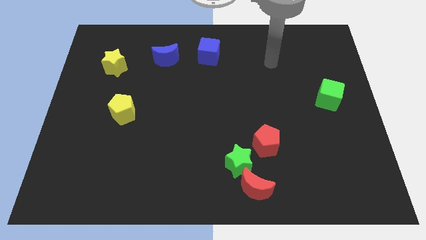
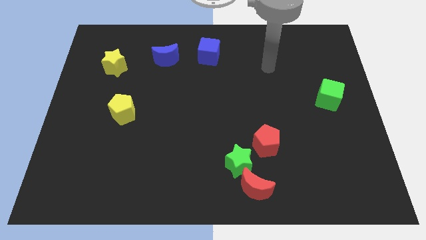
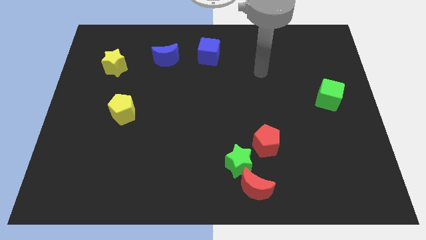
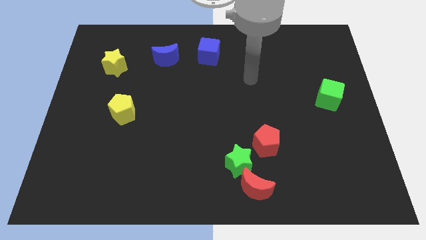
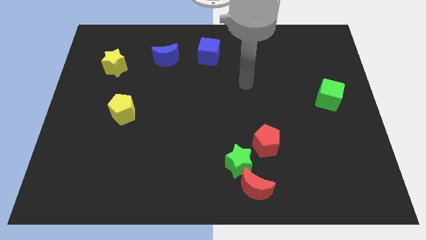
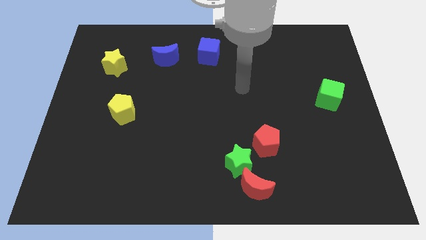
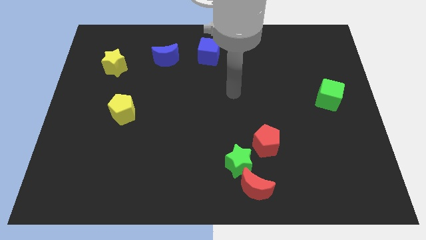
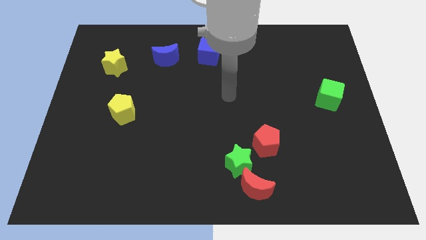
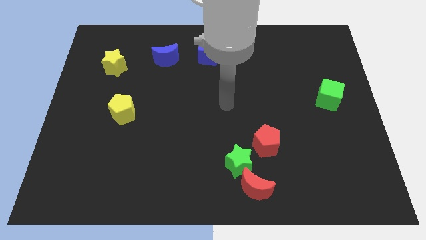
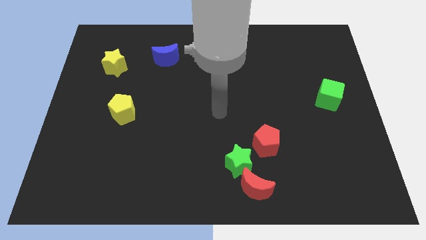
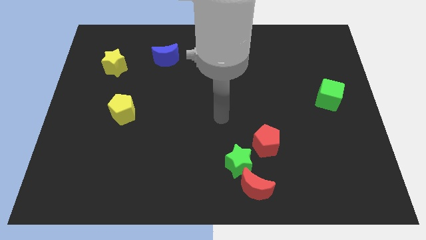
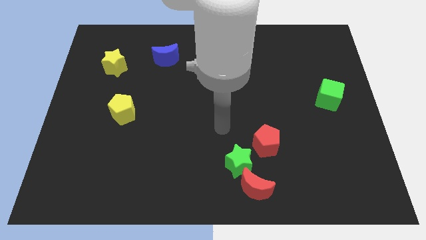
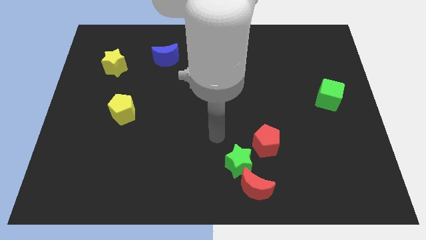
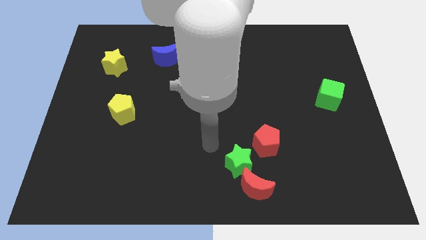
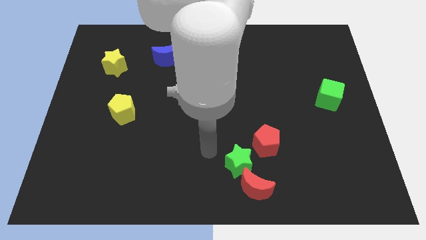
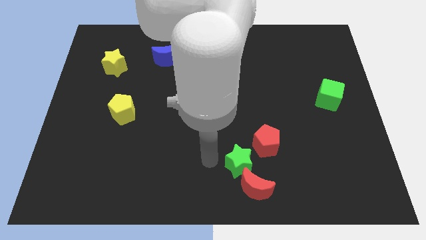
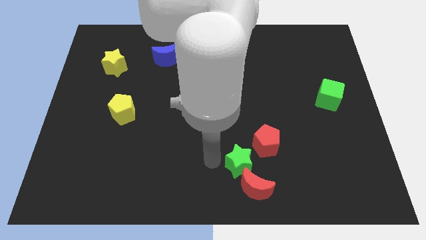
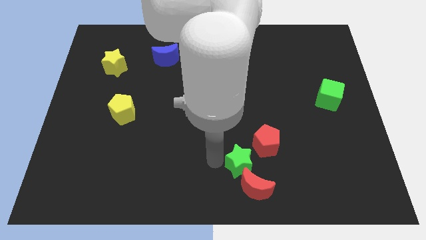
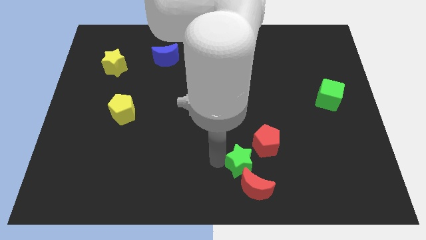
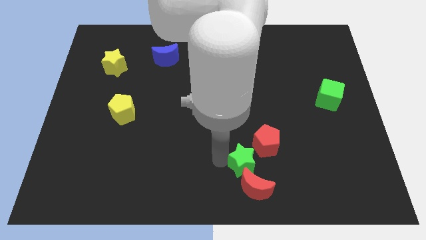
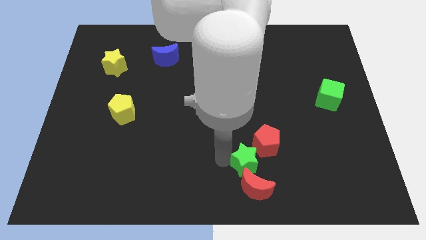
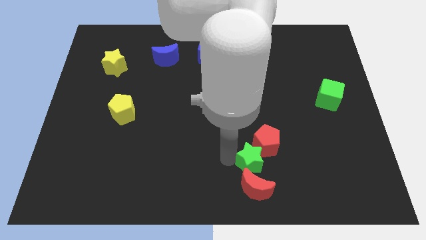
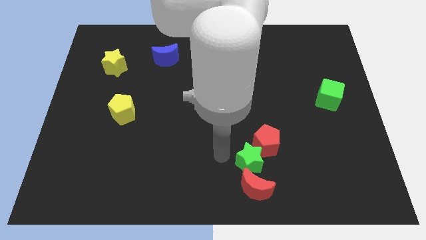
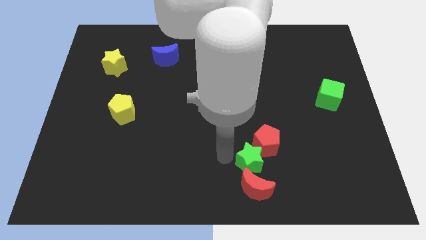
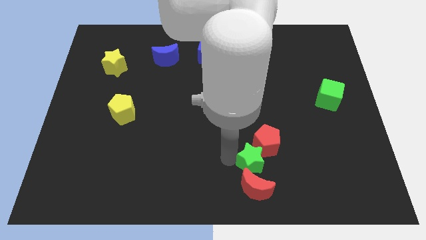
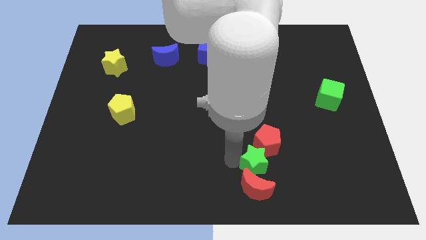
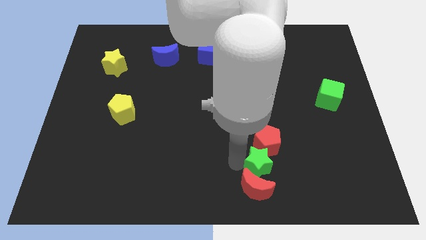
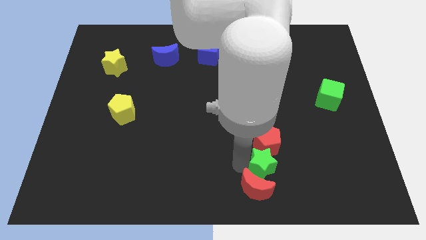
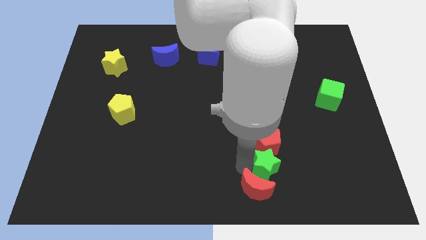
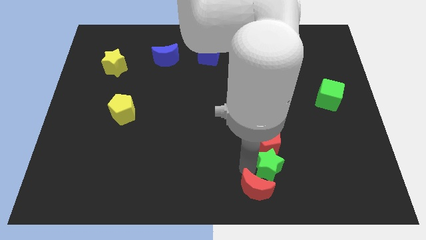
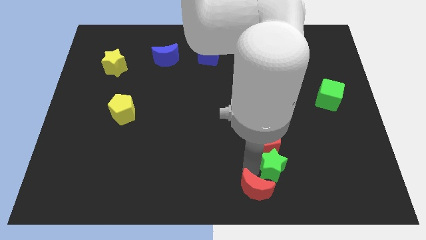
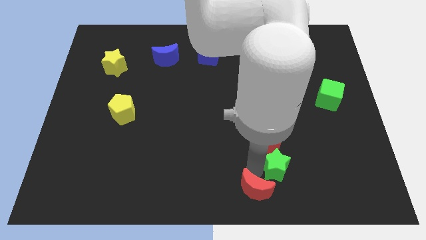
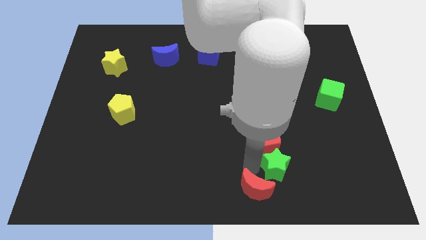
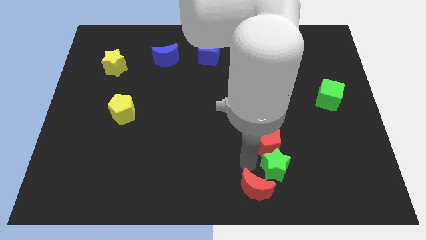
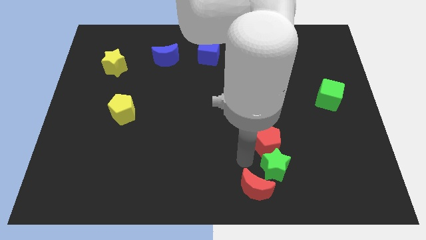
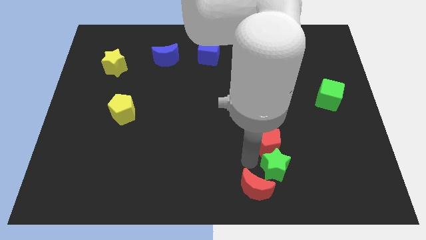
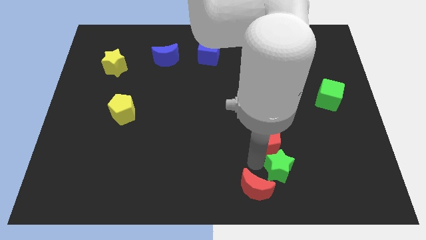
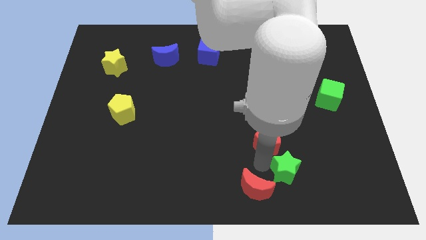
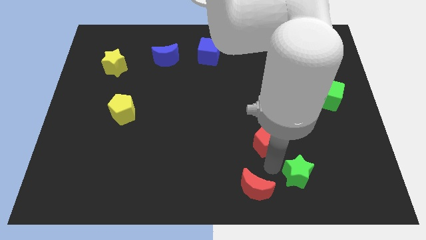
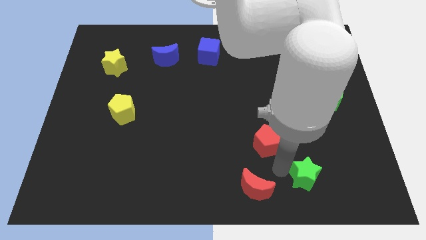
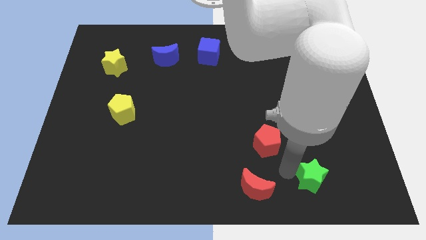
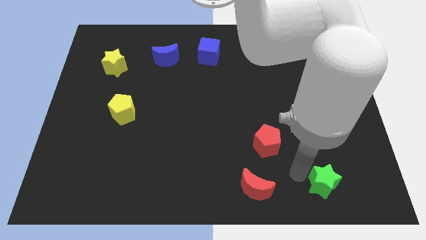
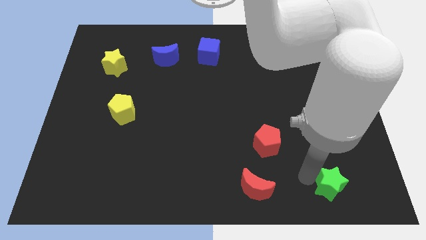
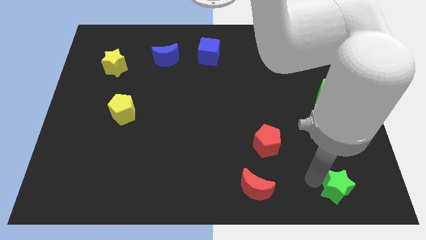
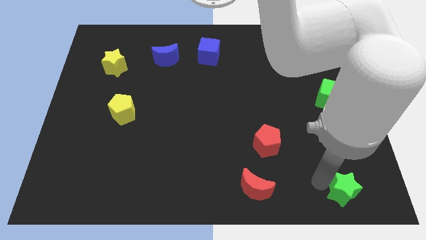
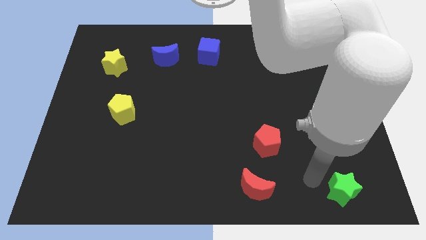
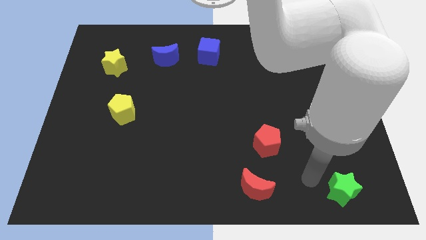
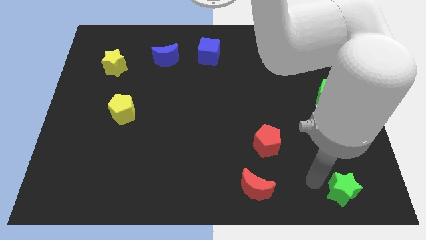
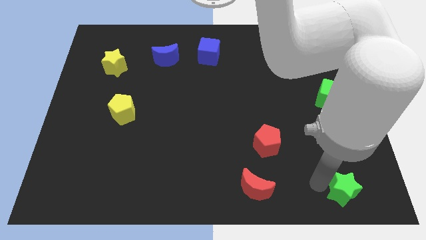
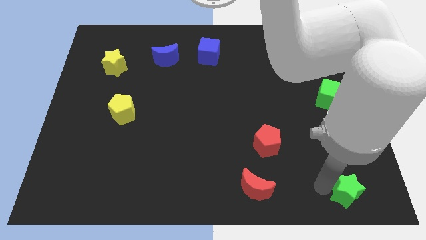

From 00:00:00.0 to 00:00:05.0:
put the green star to the bottom right of the board

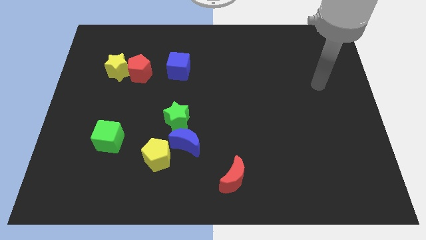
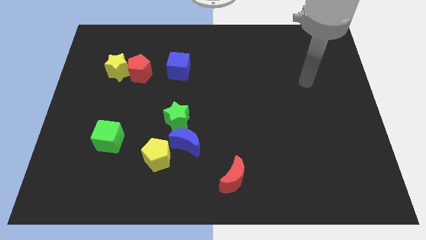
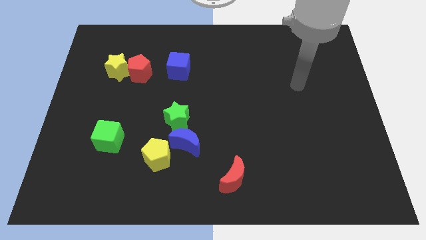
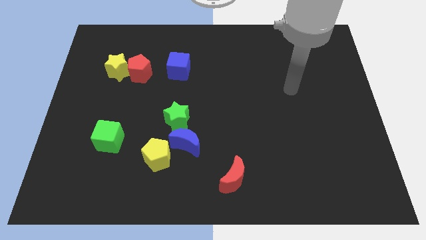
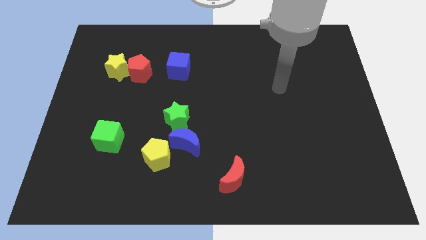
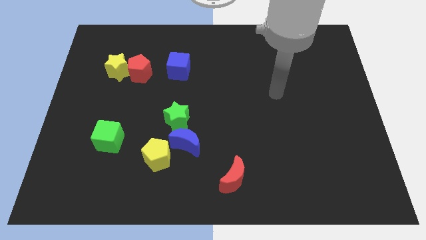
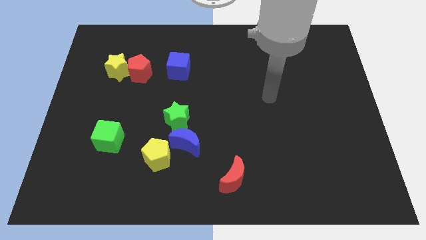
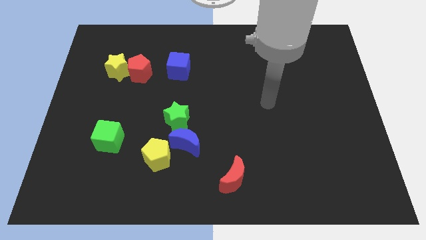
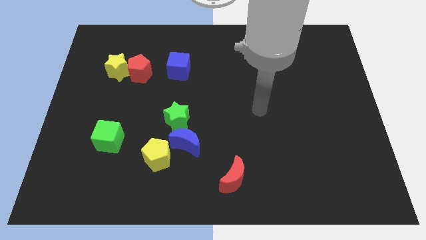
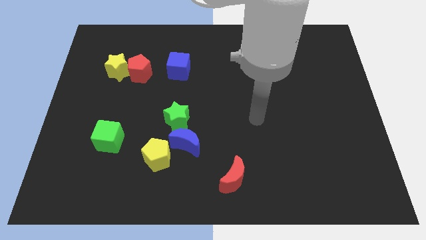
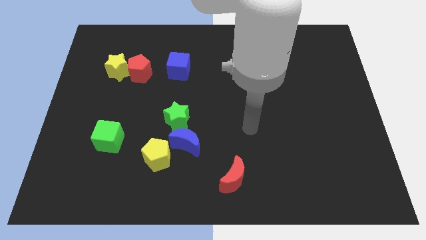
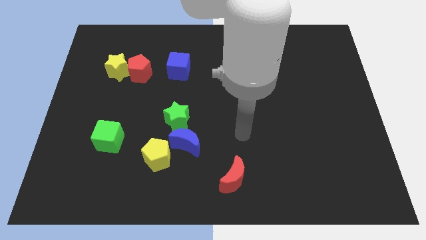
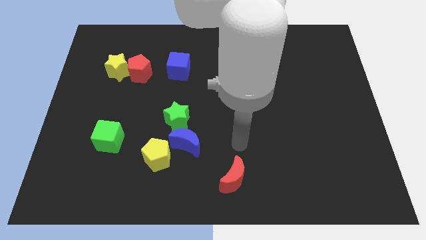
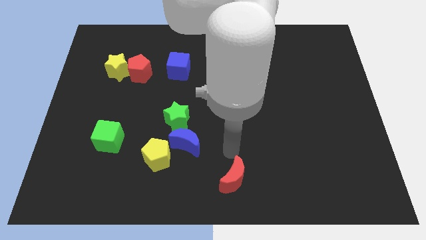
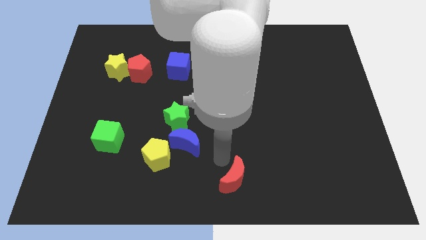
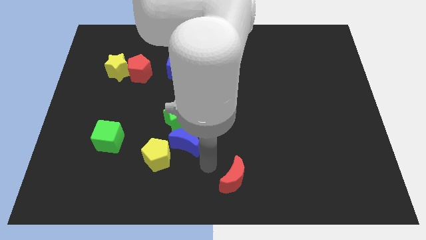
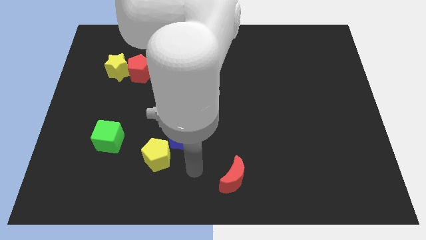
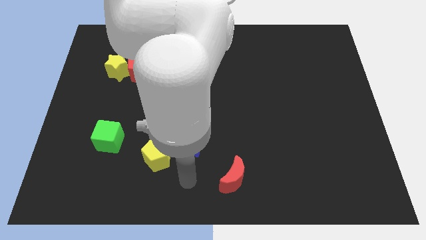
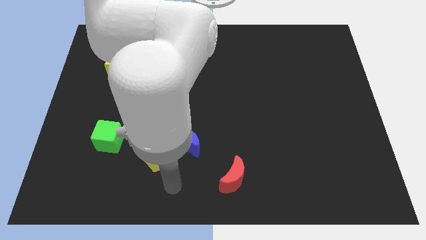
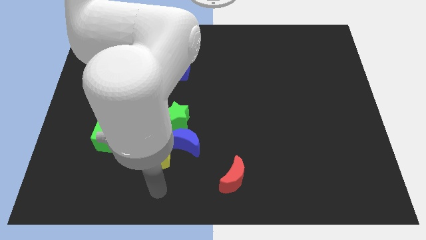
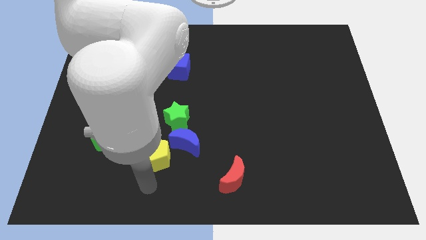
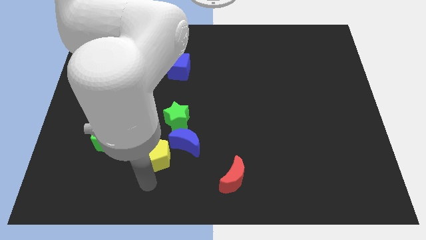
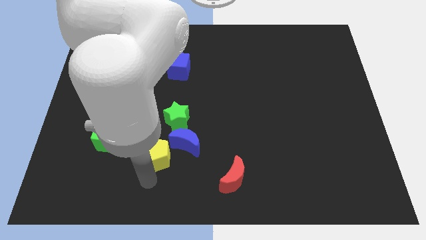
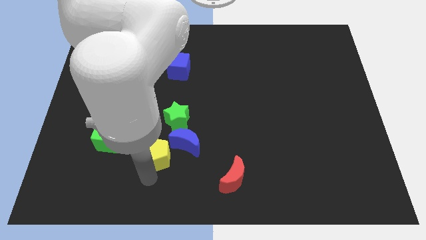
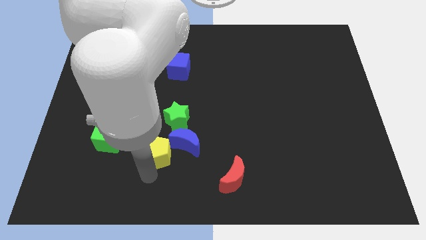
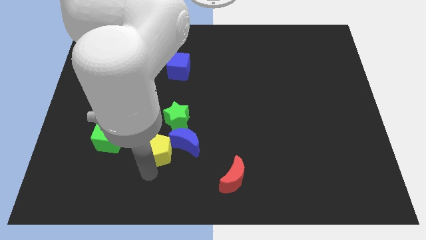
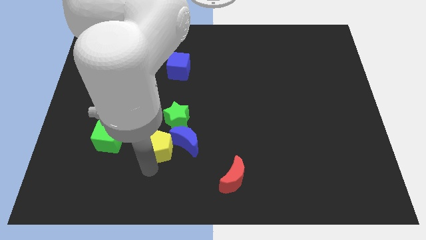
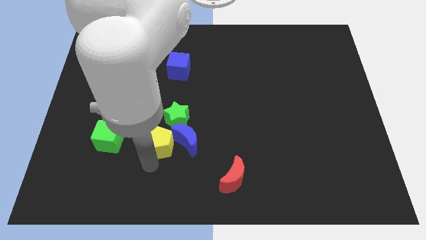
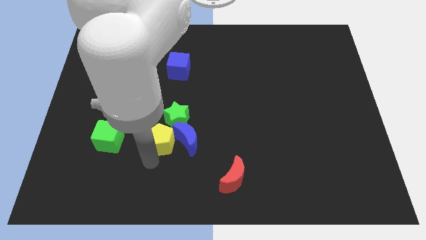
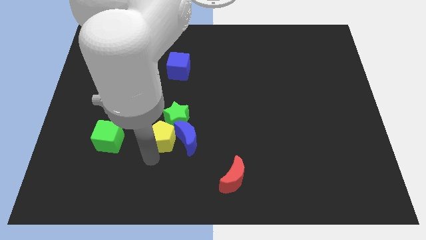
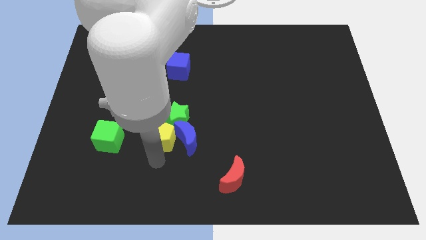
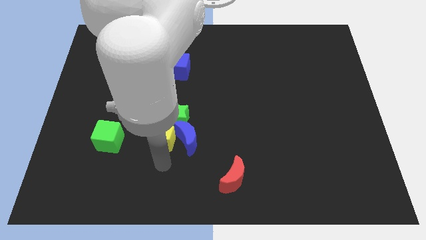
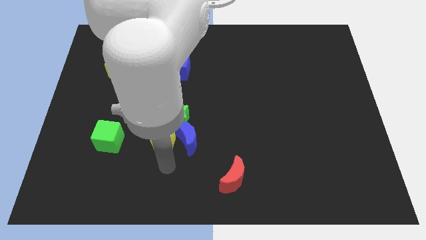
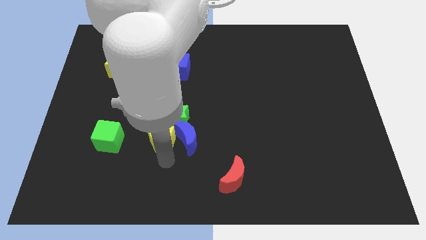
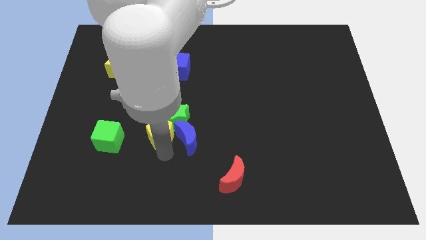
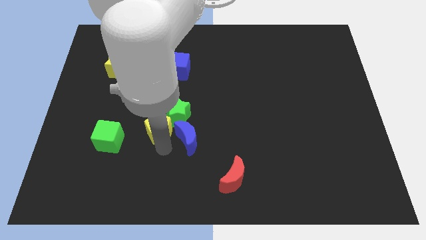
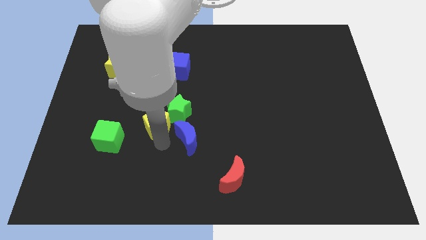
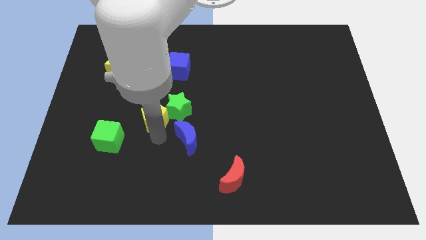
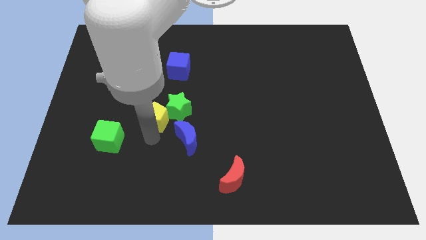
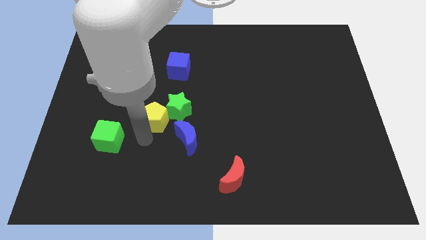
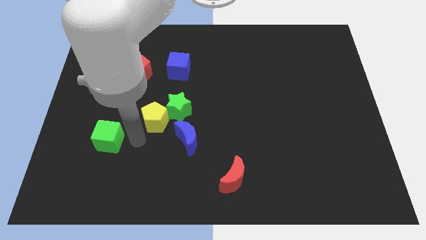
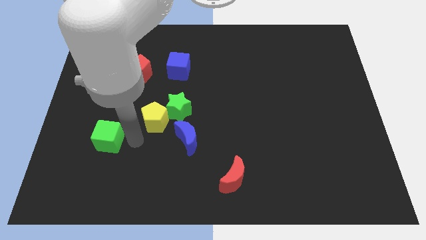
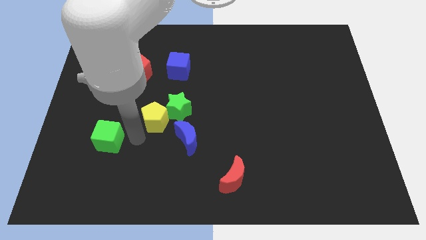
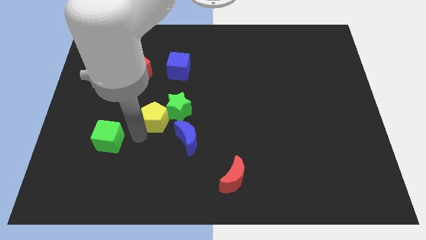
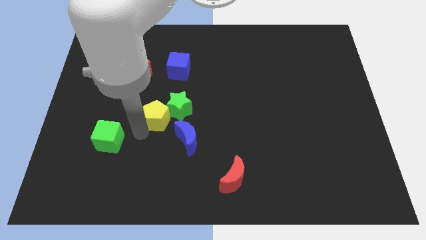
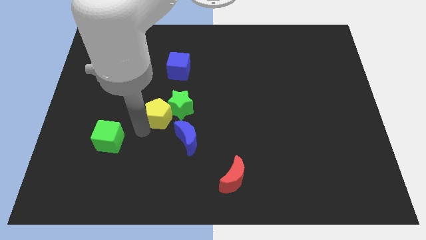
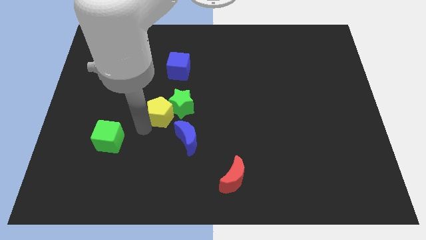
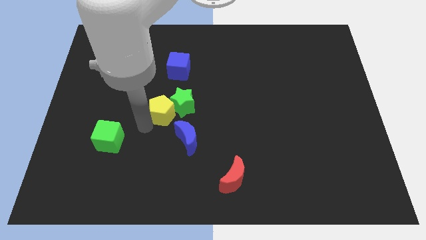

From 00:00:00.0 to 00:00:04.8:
slide the yellow pentagon to the middle
